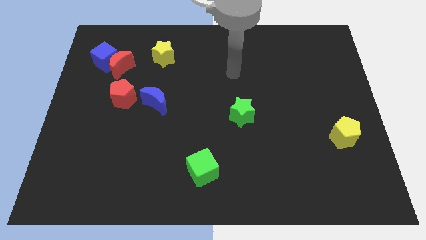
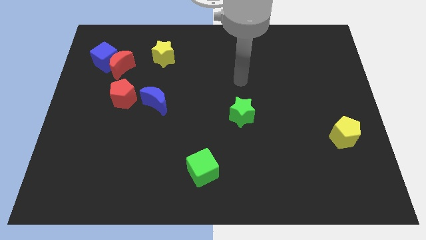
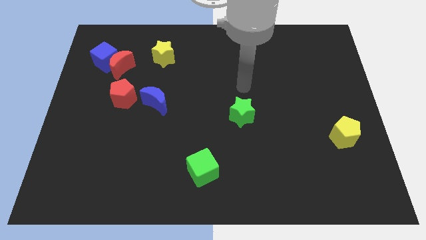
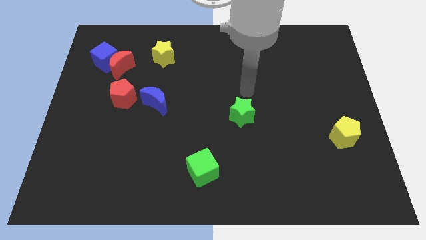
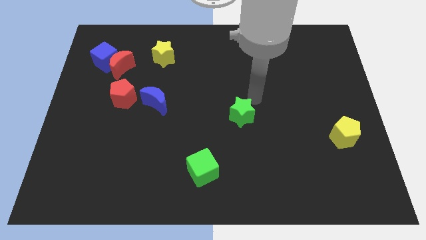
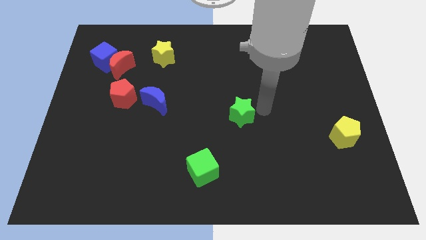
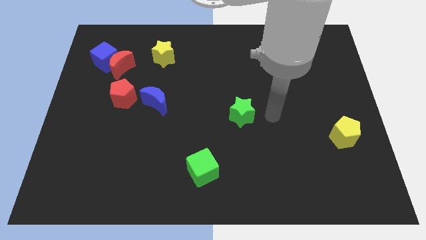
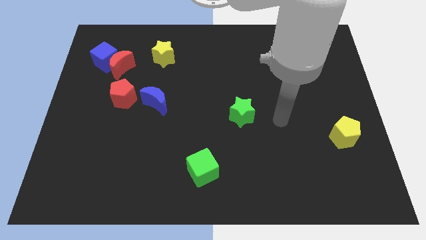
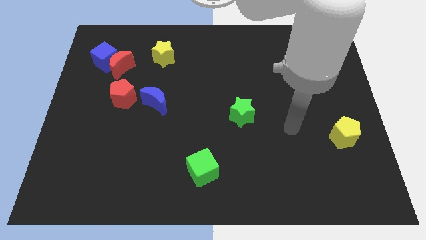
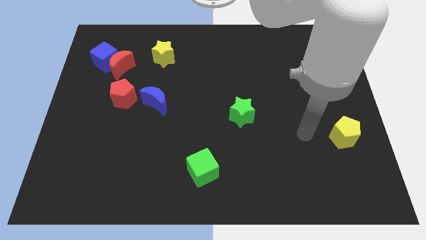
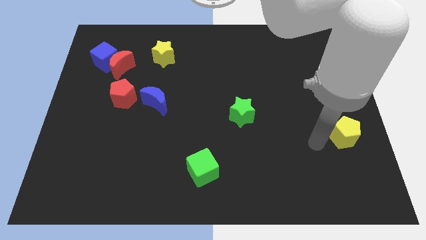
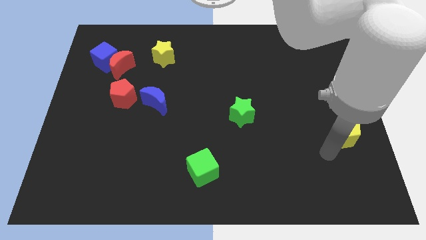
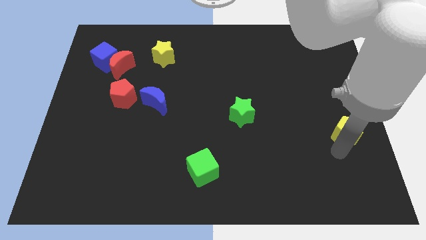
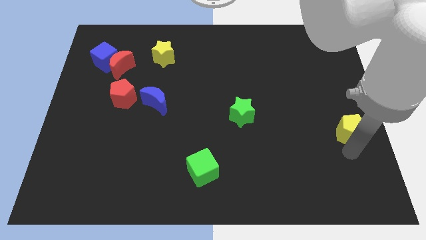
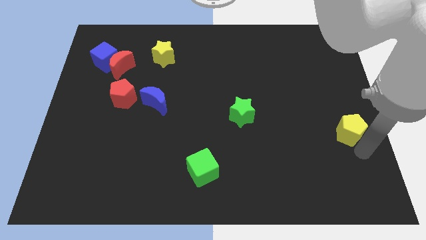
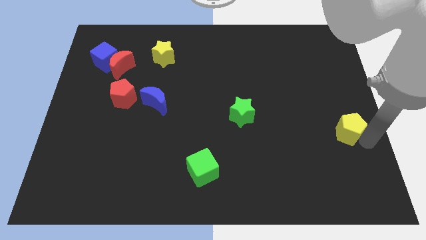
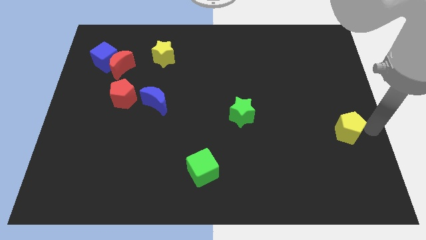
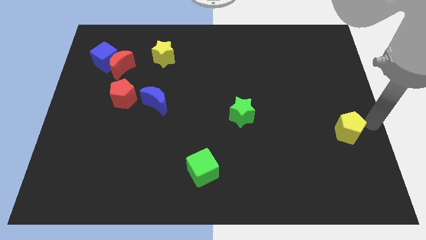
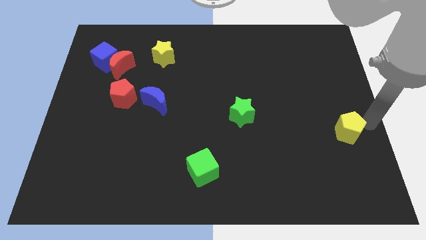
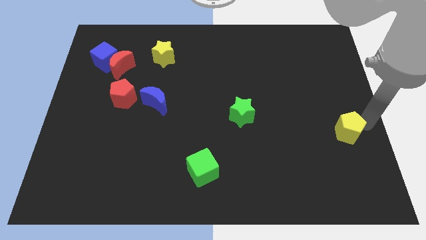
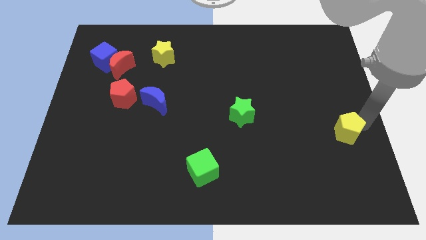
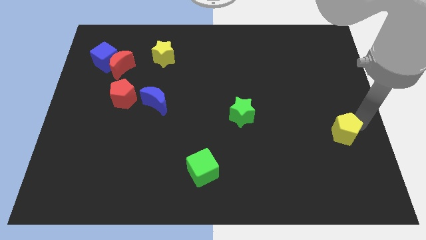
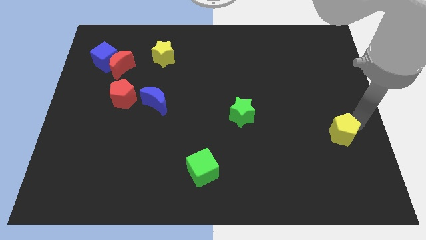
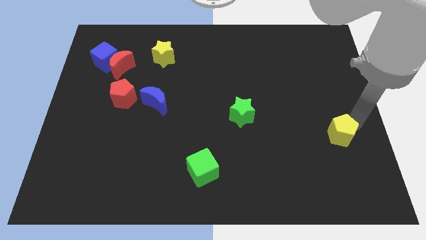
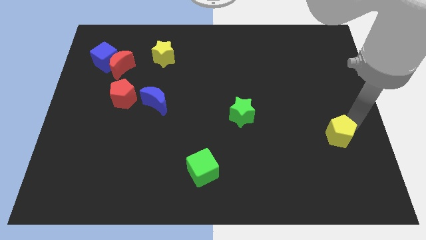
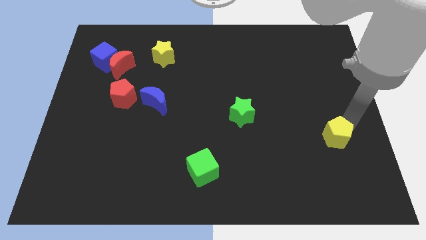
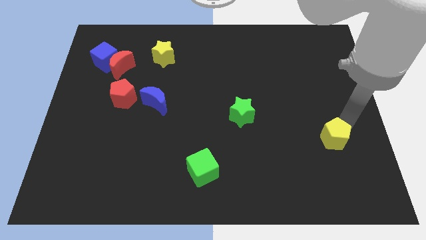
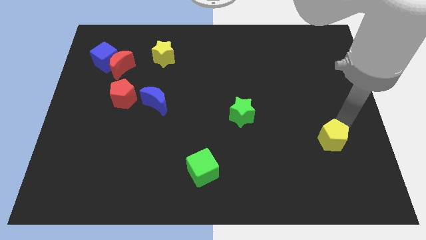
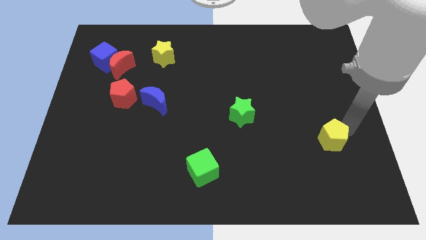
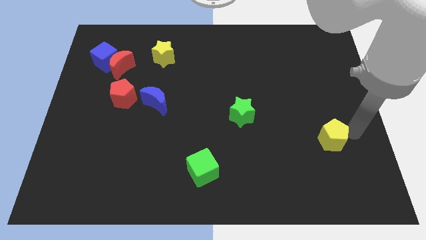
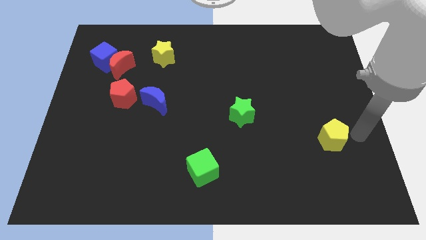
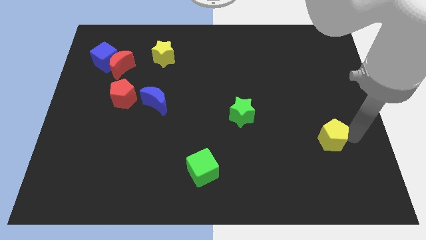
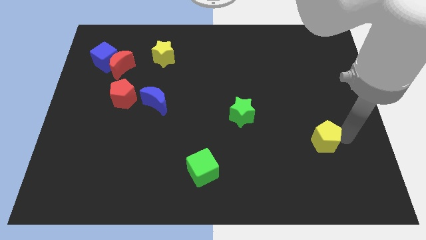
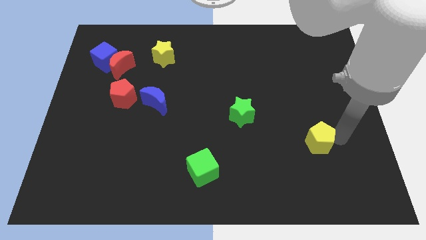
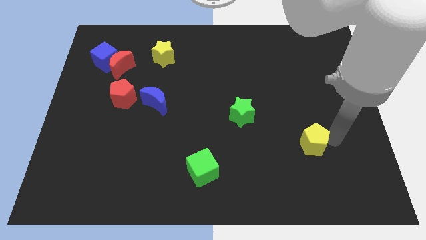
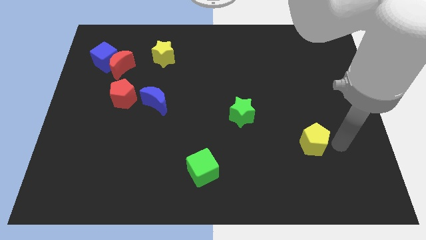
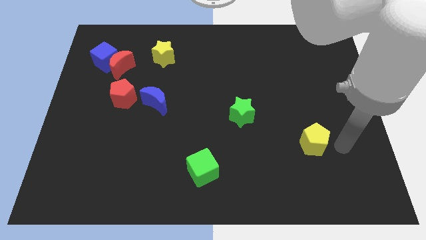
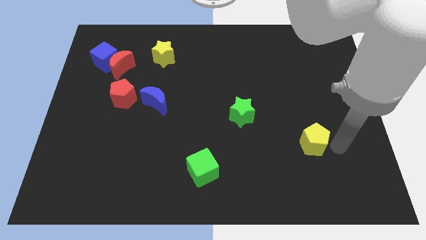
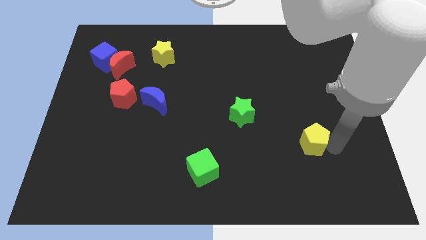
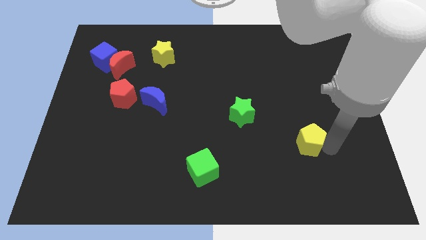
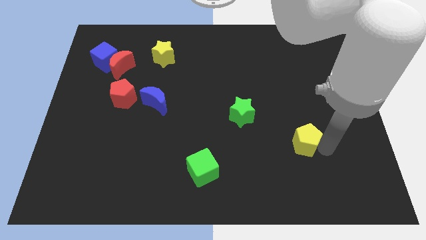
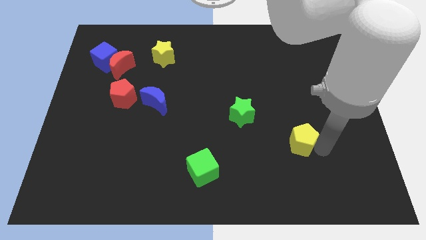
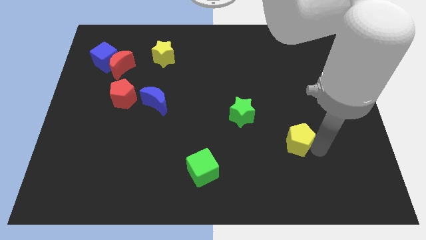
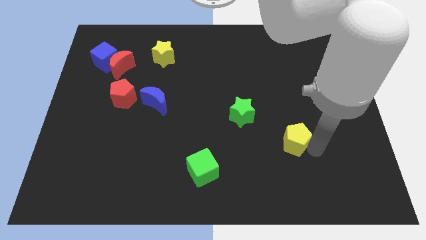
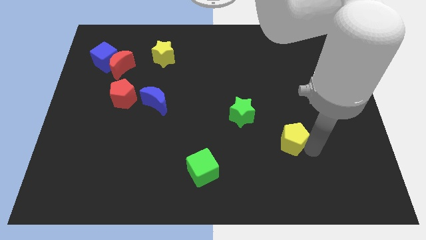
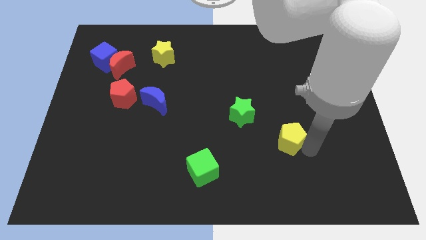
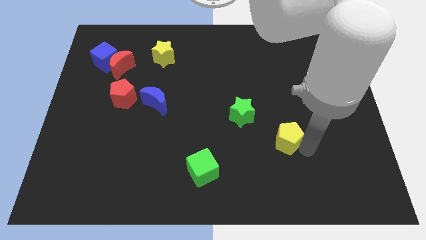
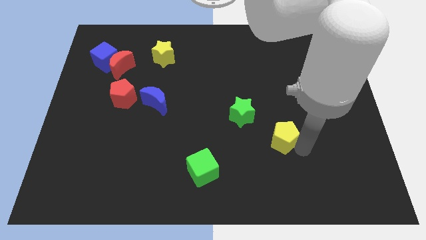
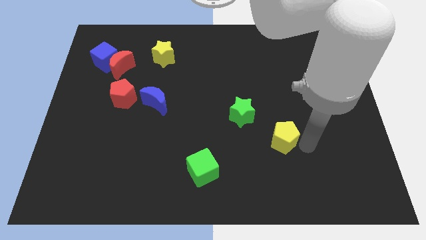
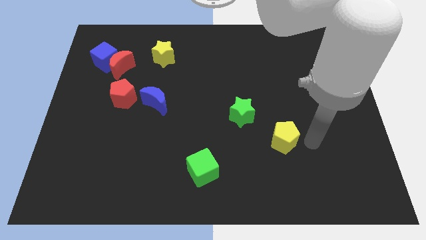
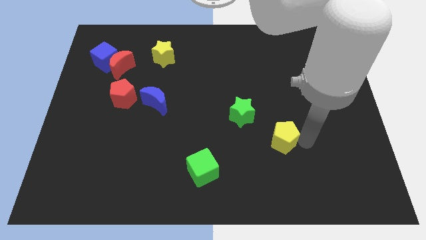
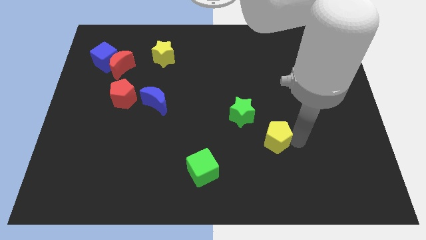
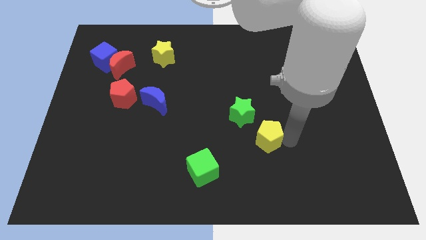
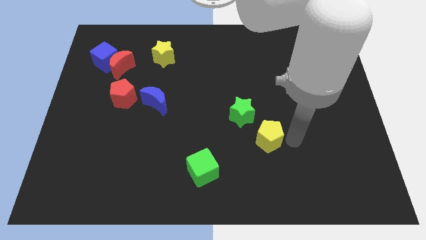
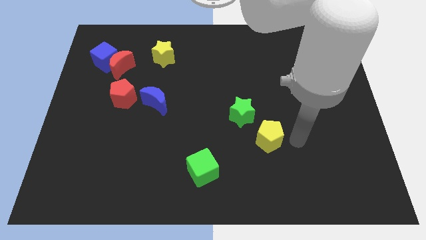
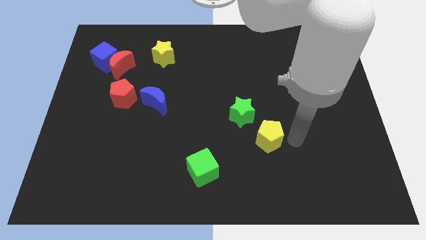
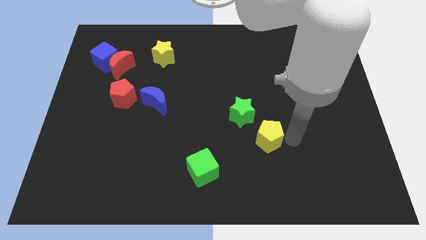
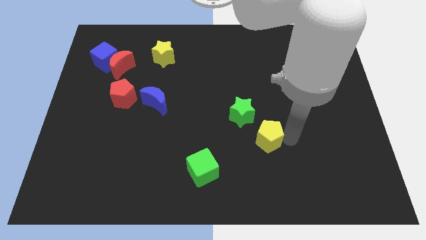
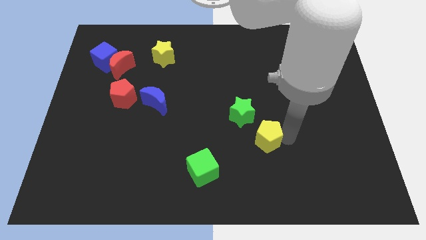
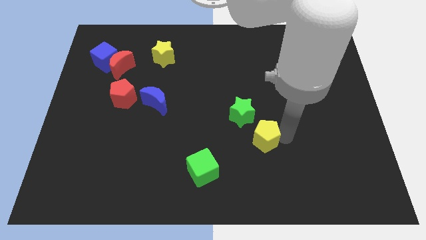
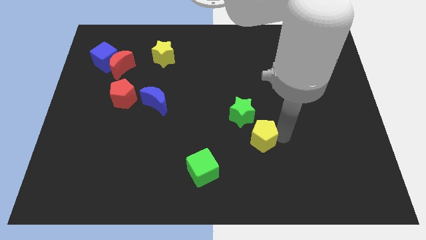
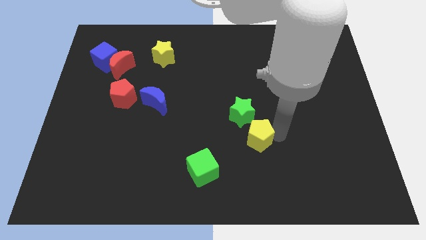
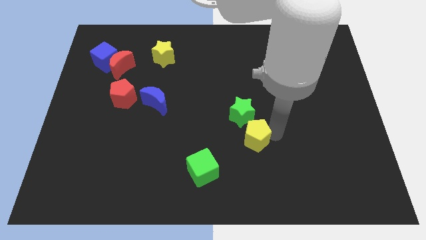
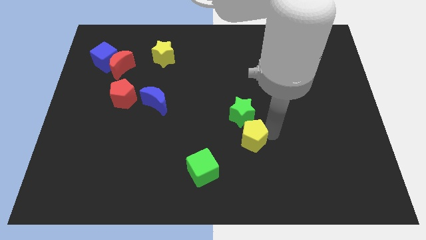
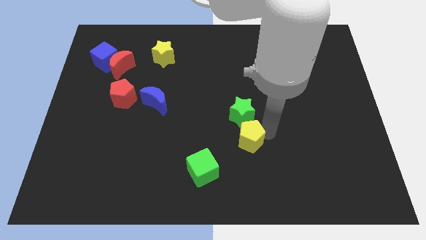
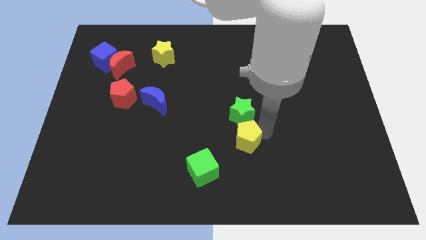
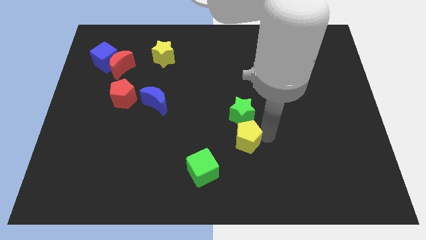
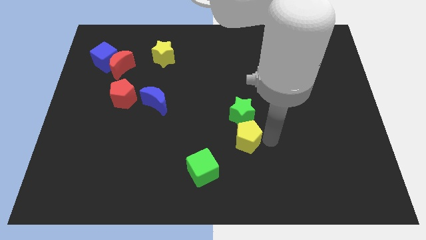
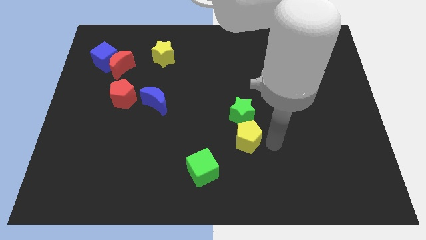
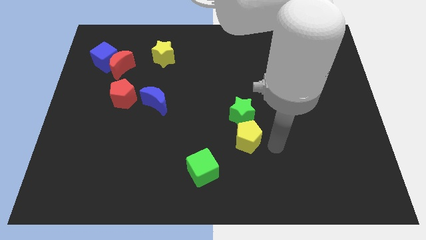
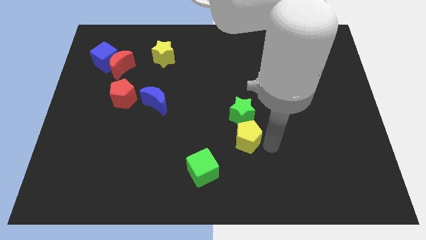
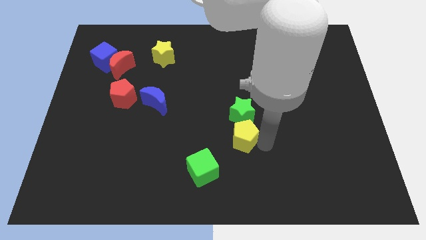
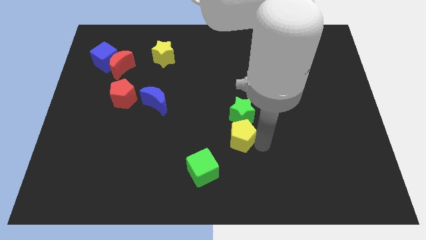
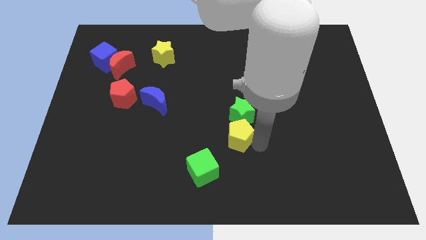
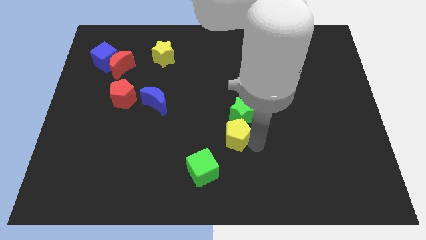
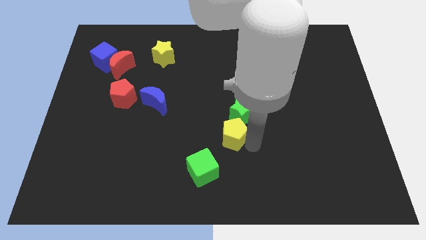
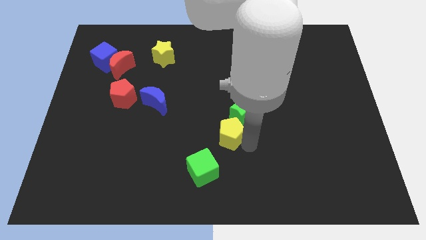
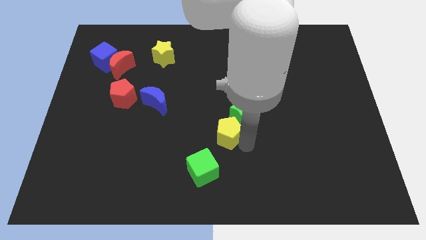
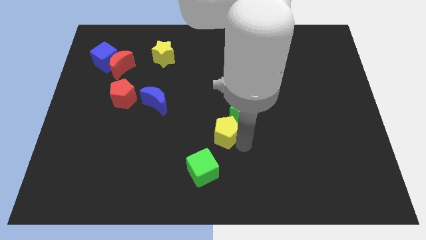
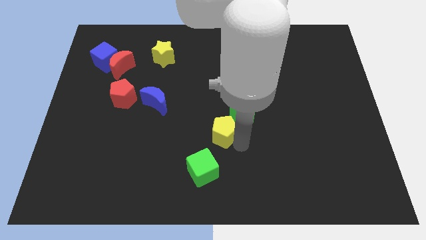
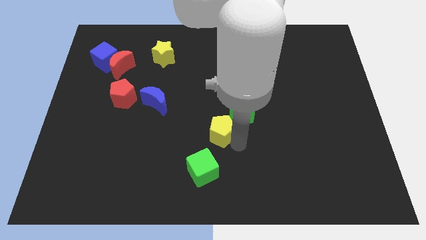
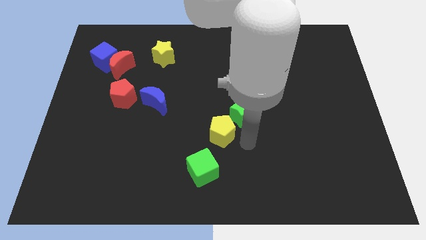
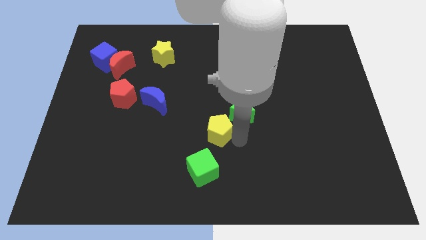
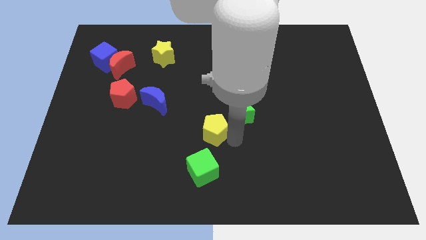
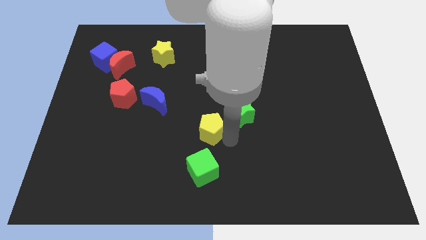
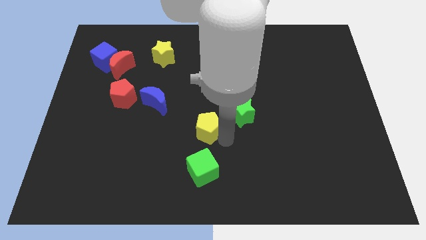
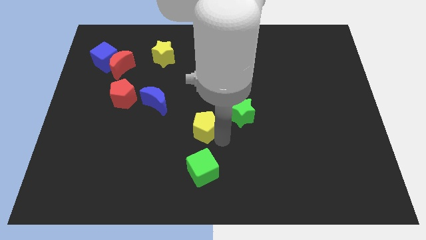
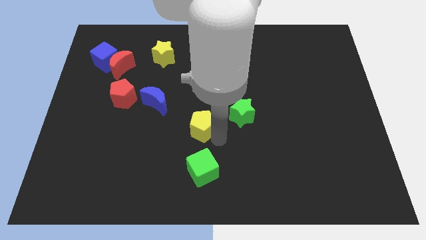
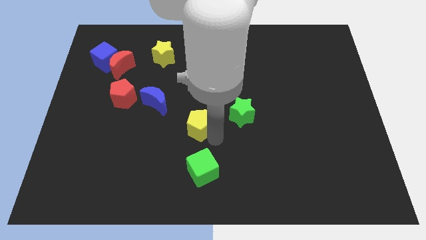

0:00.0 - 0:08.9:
move the yellow pentagon to the bottom right side of the blue moon
